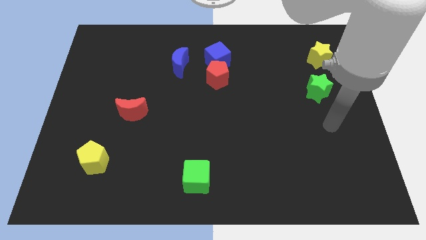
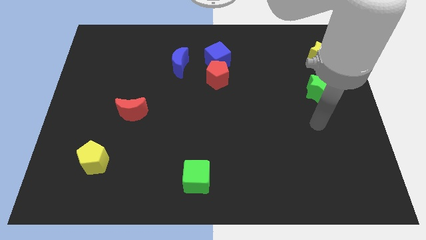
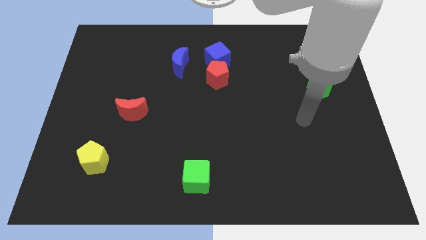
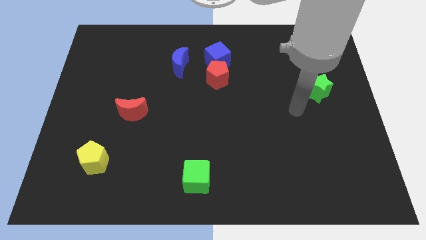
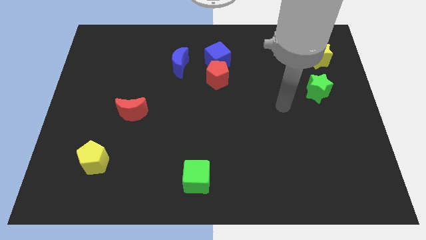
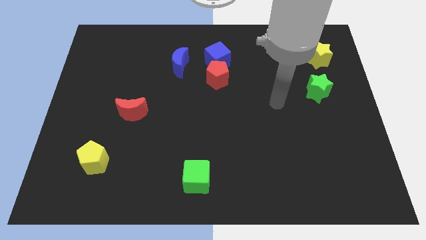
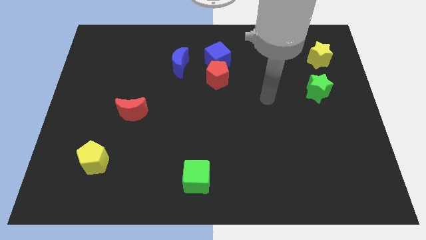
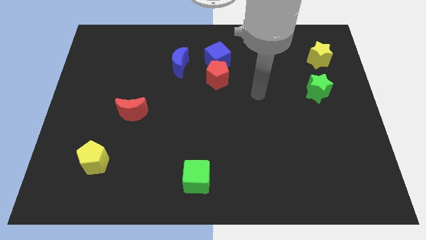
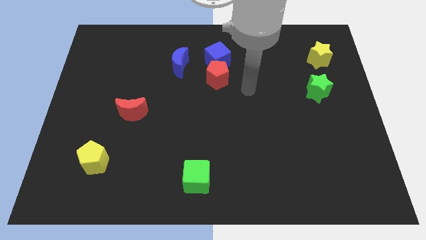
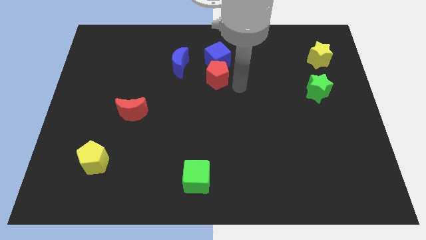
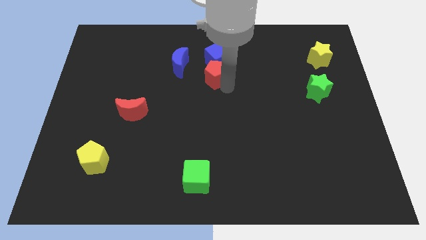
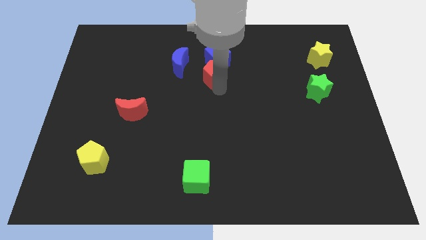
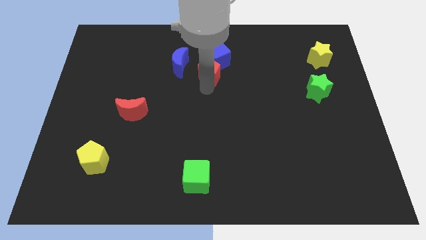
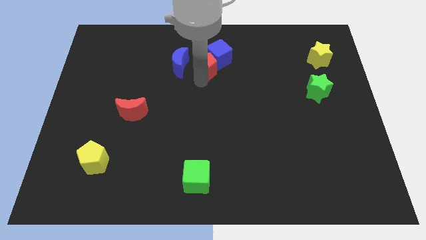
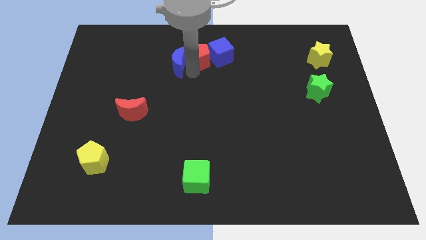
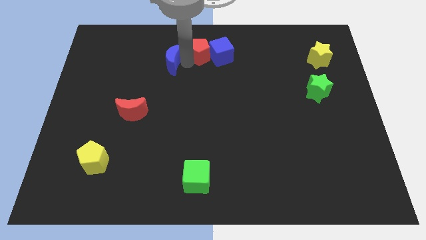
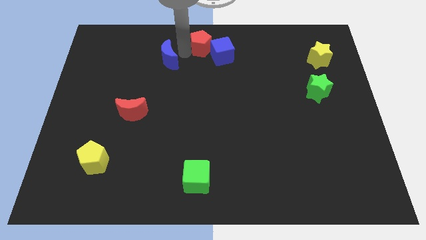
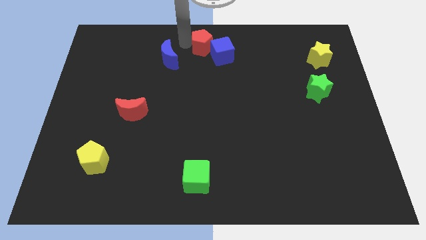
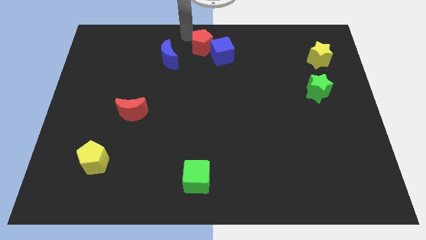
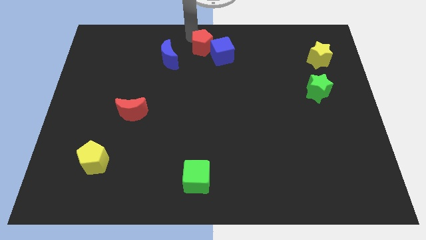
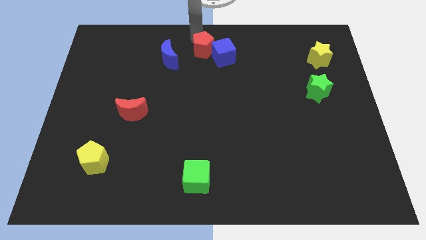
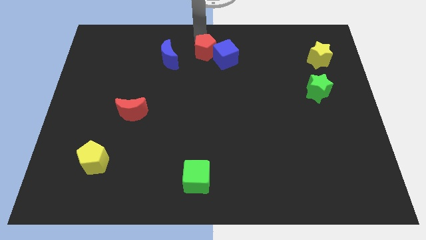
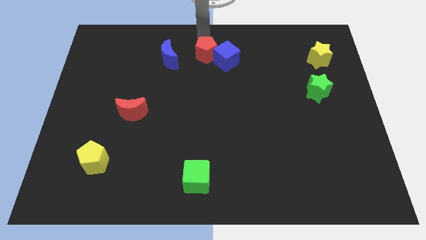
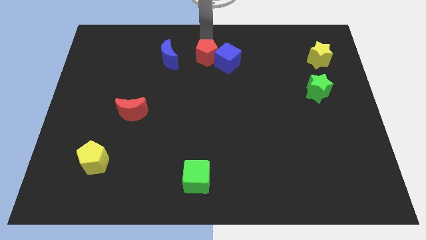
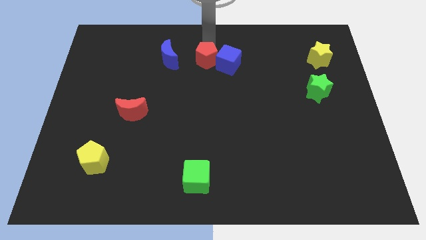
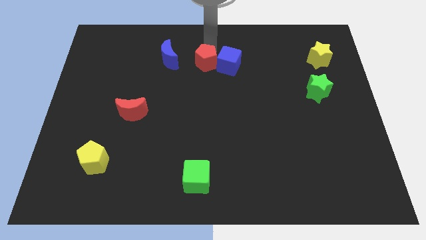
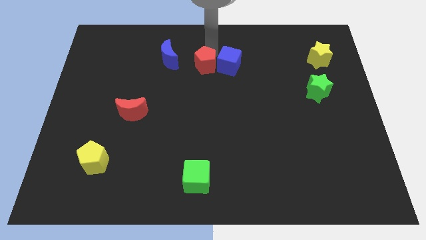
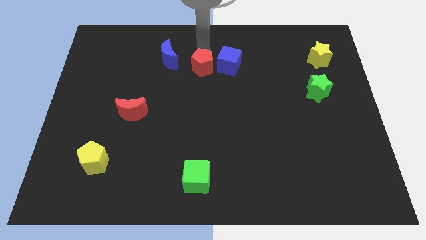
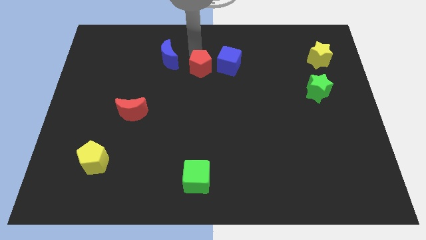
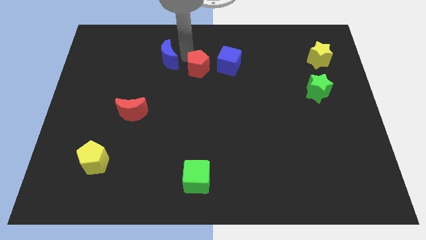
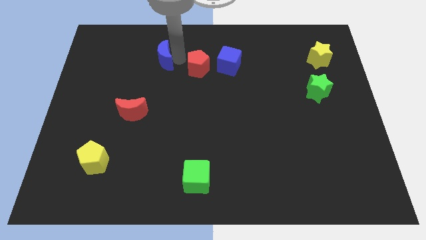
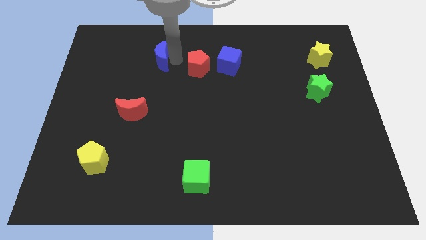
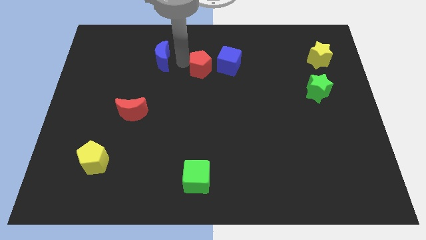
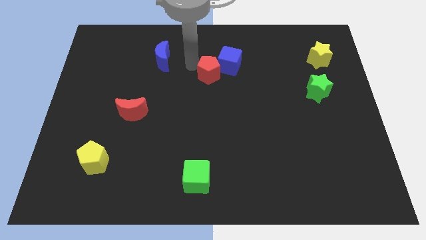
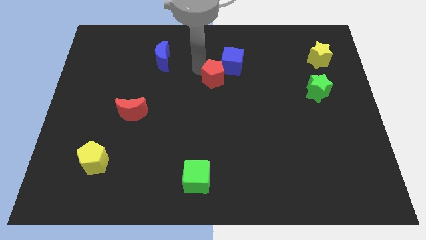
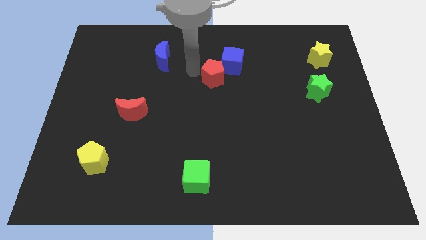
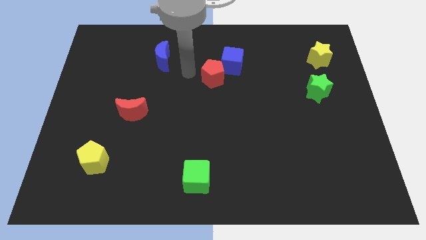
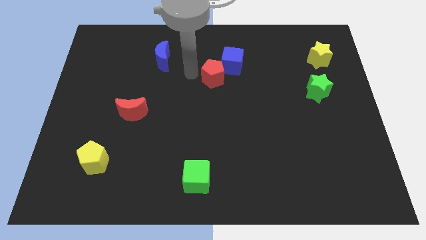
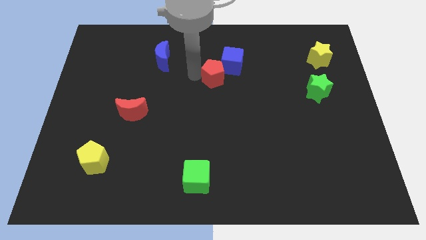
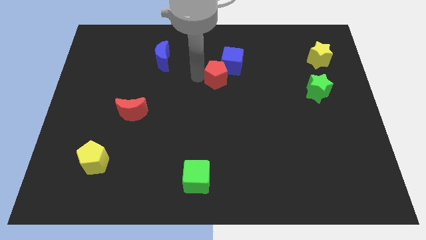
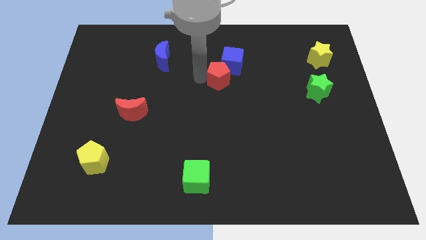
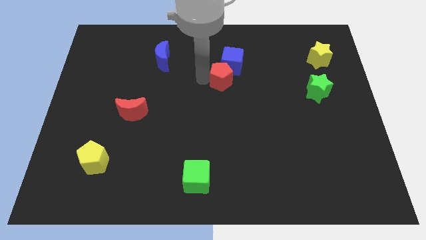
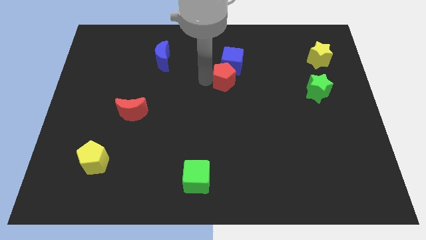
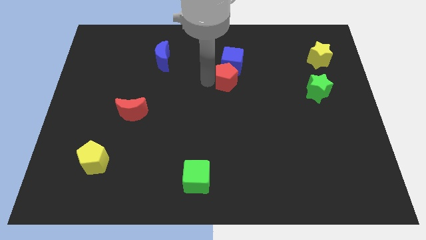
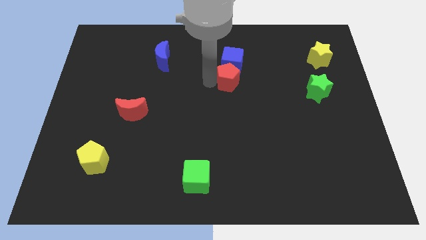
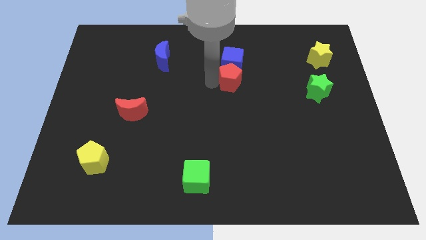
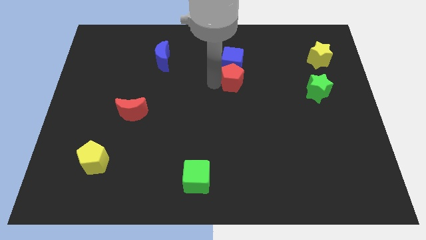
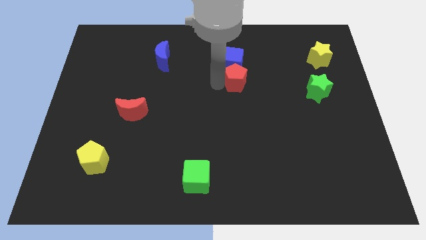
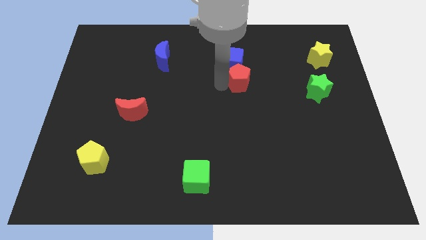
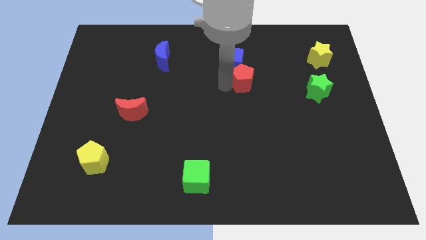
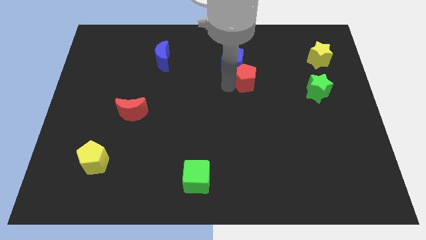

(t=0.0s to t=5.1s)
slide the red pentagon a little to the right

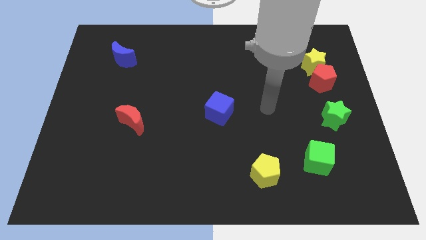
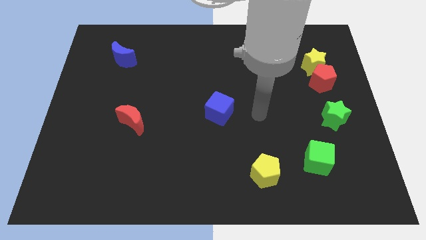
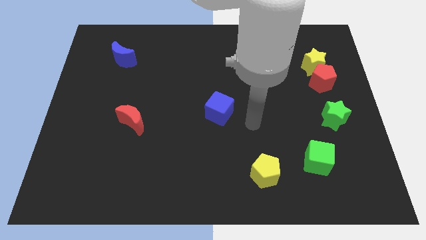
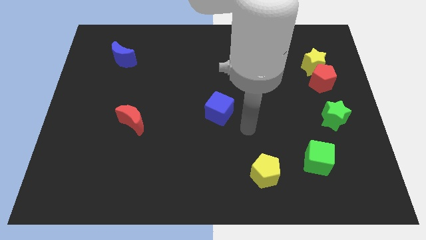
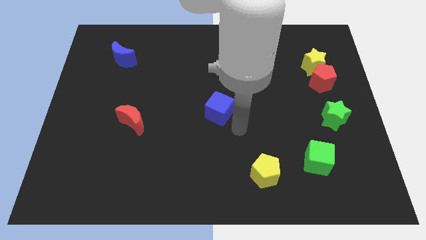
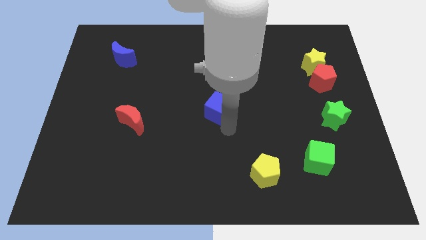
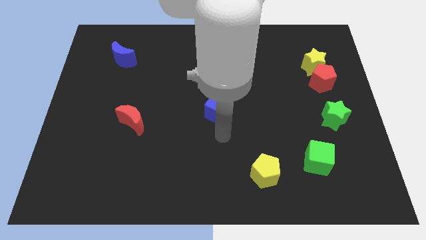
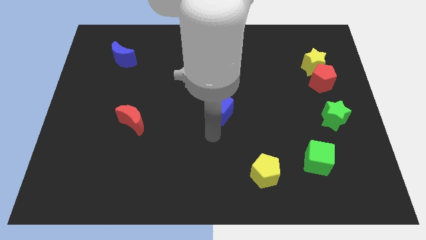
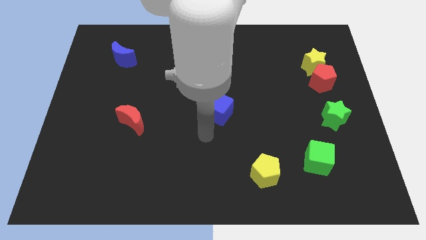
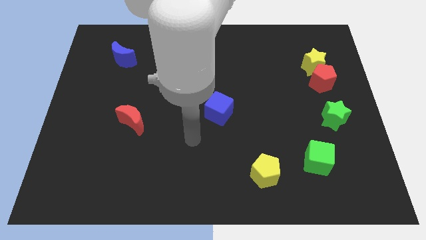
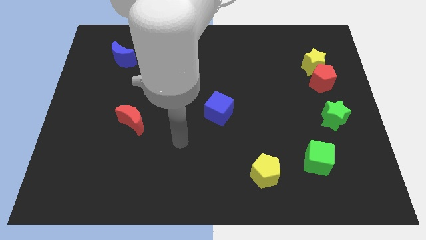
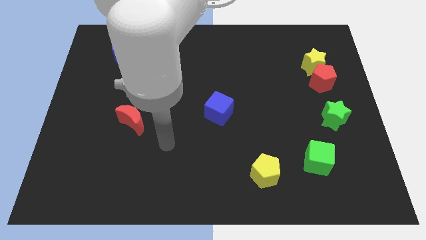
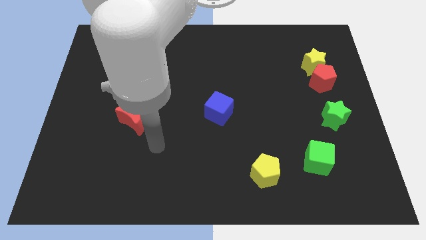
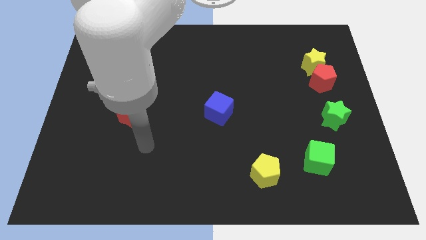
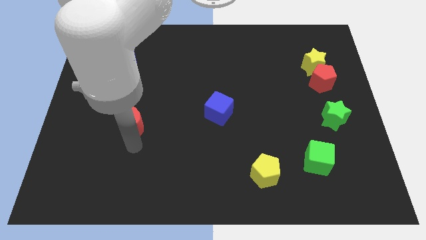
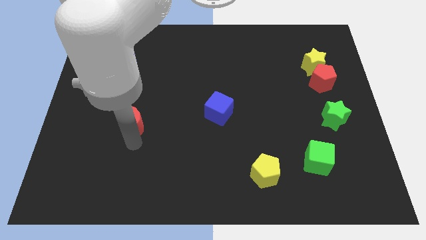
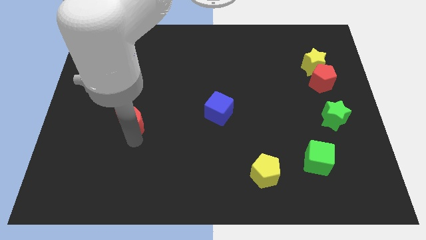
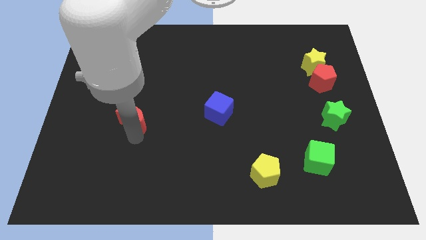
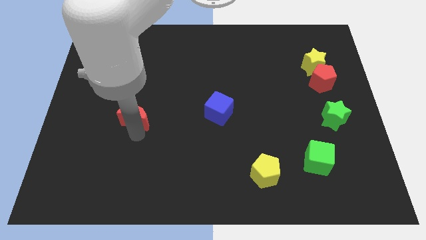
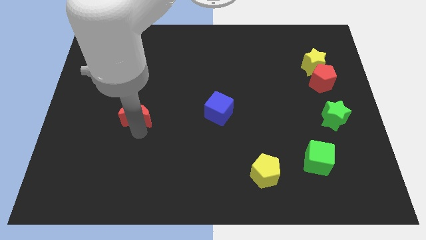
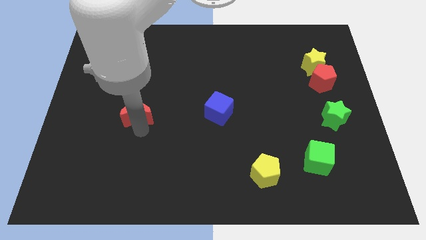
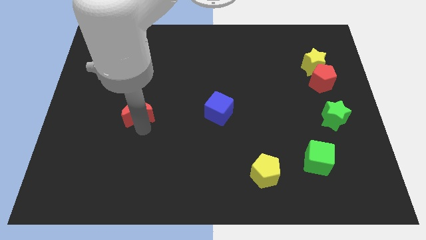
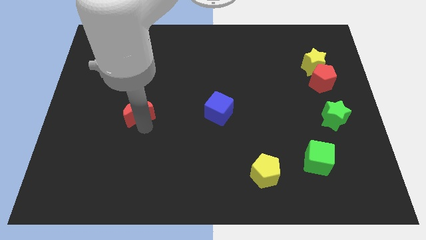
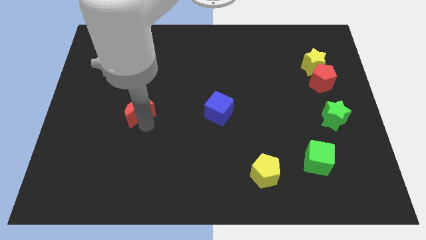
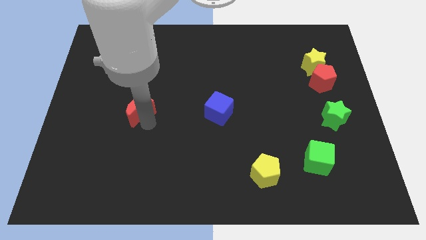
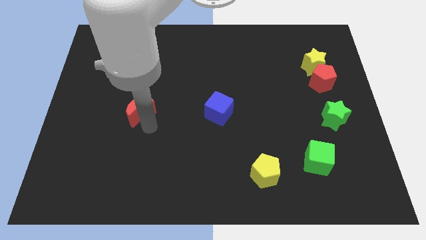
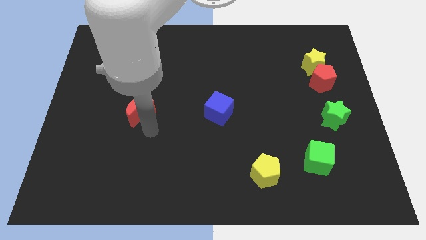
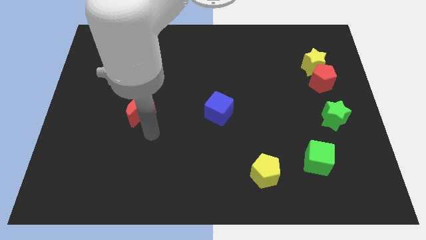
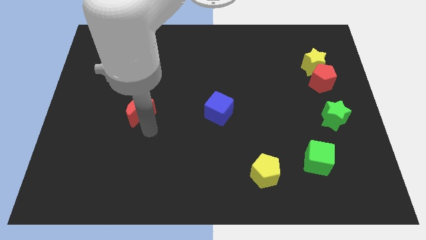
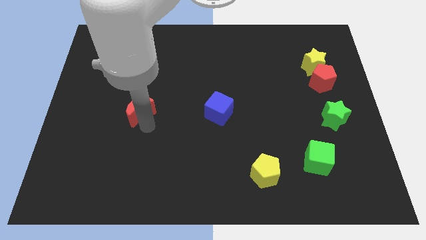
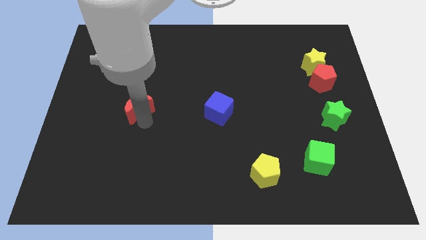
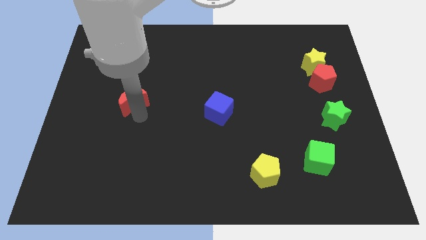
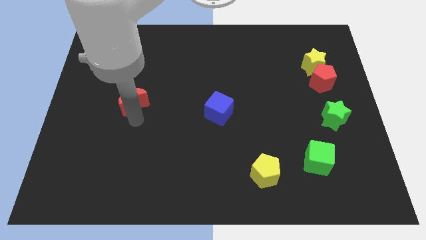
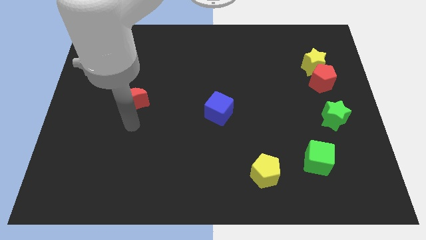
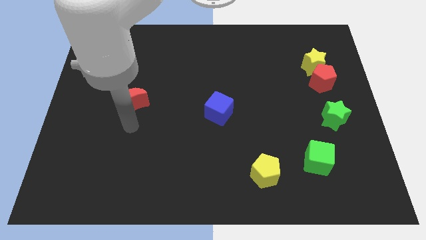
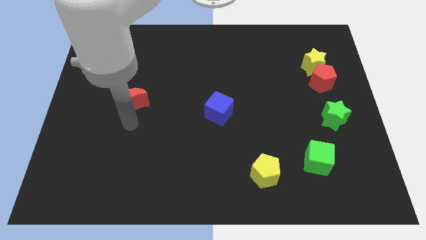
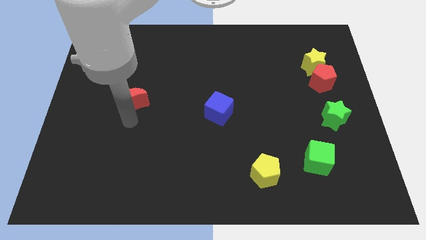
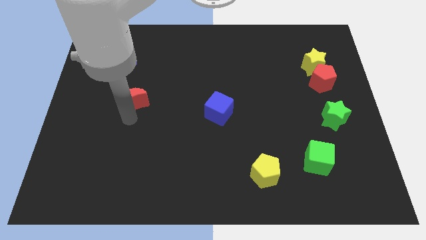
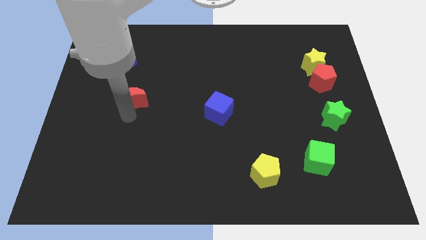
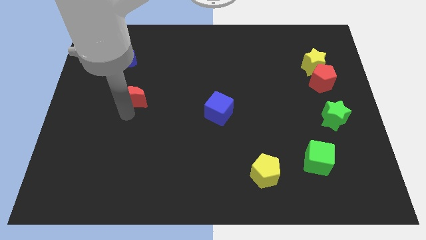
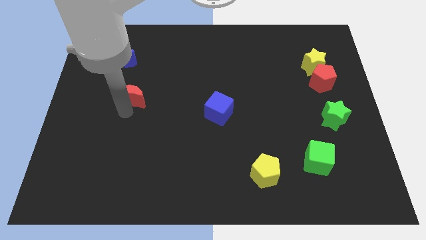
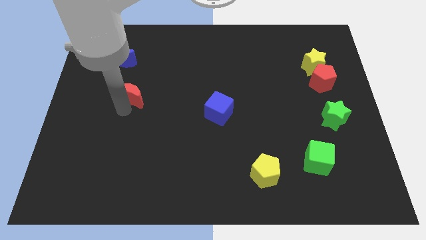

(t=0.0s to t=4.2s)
push the red moon slightly up
